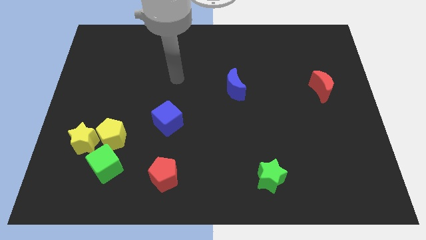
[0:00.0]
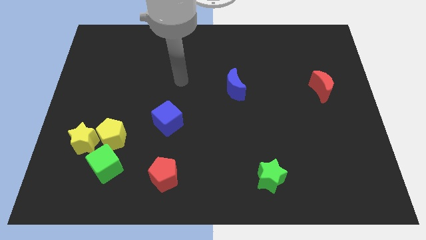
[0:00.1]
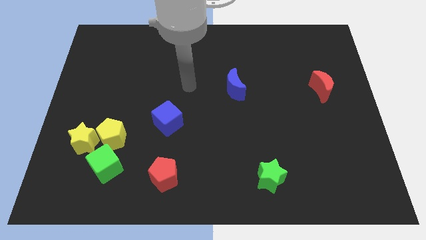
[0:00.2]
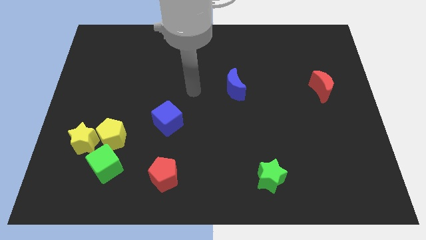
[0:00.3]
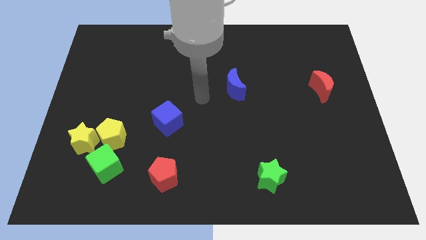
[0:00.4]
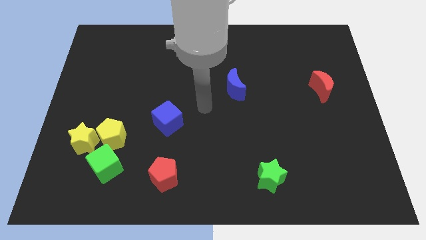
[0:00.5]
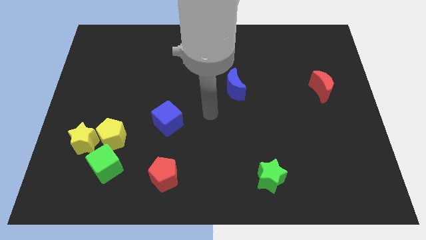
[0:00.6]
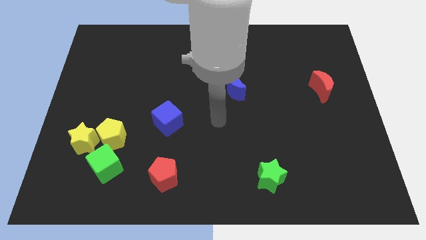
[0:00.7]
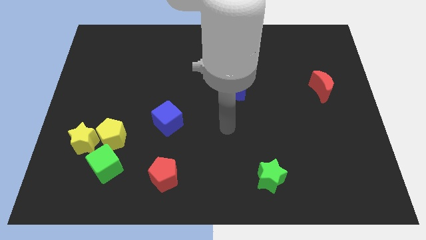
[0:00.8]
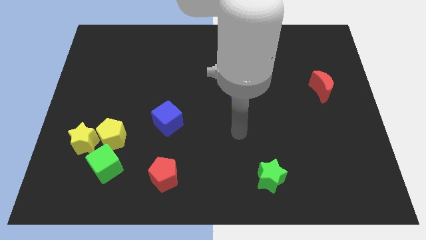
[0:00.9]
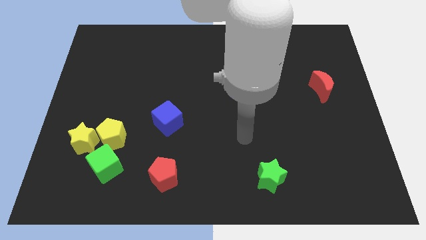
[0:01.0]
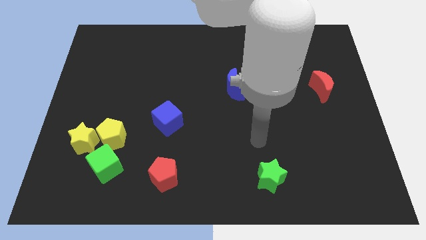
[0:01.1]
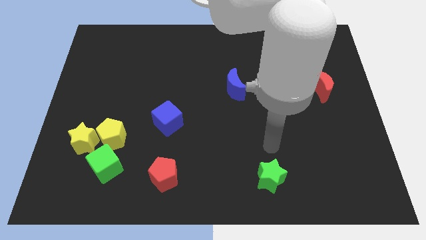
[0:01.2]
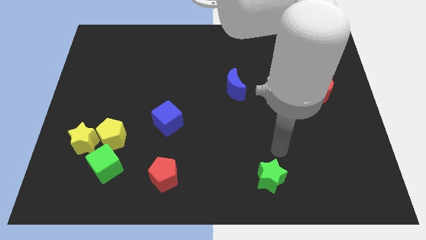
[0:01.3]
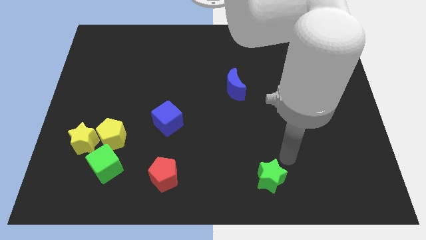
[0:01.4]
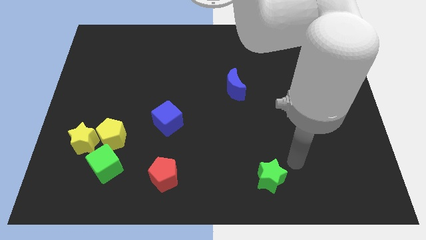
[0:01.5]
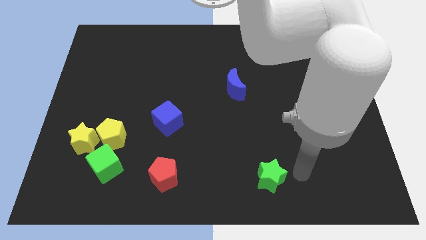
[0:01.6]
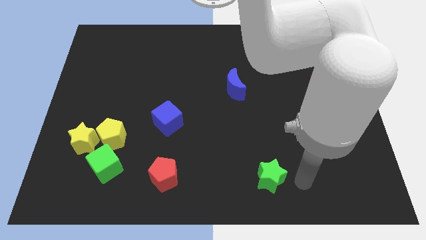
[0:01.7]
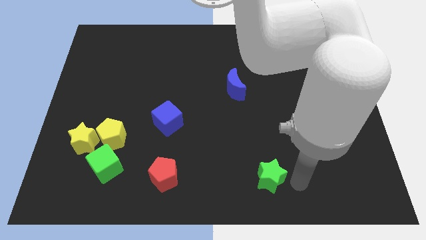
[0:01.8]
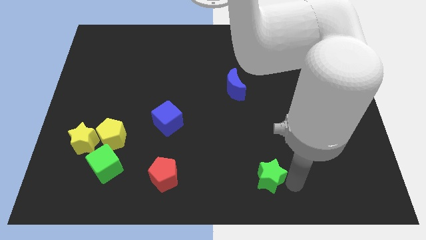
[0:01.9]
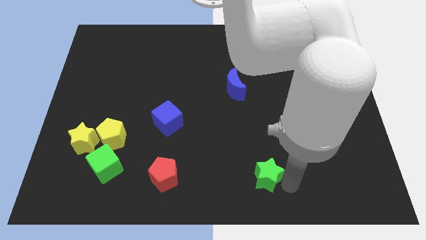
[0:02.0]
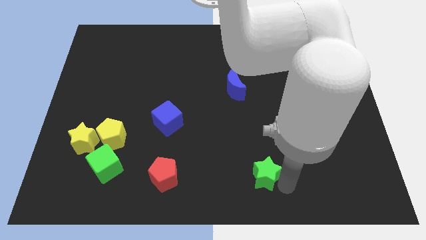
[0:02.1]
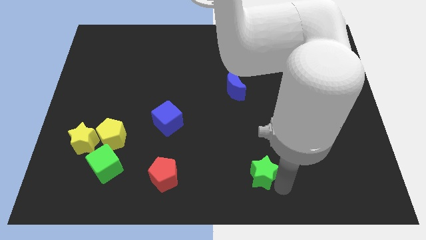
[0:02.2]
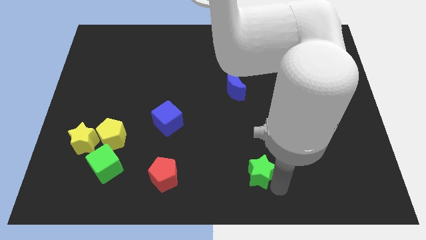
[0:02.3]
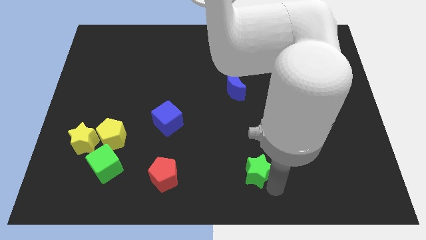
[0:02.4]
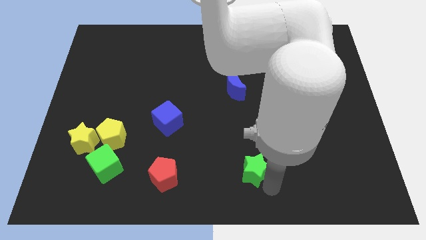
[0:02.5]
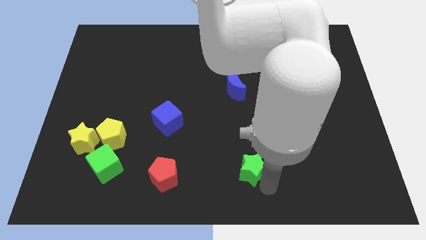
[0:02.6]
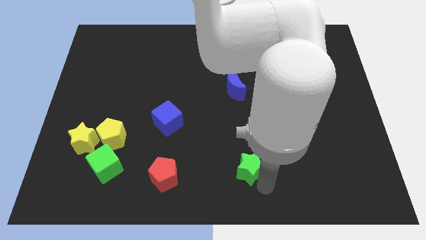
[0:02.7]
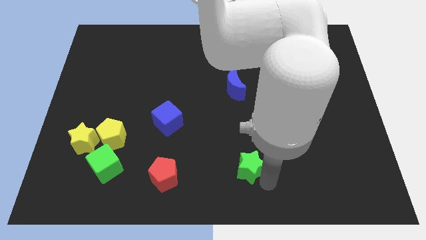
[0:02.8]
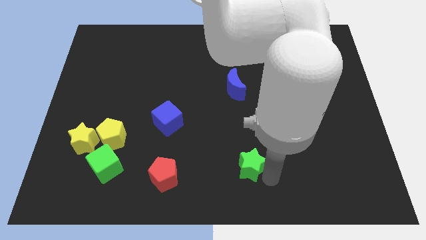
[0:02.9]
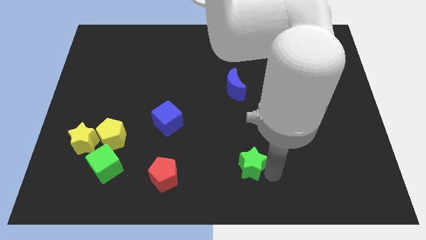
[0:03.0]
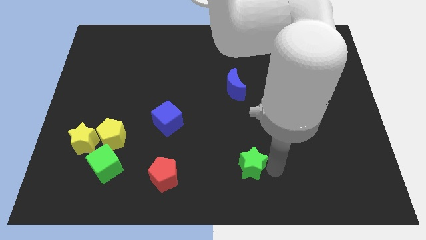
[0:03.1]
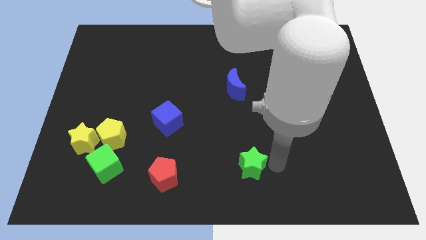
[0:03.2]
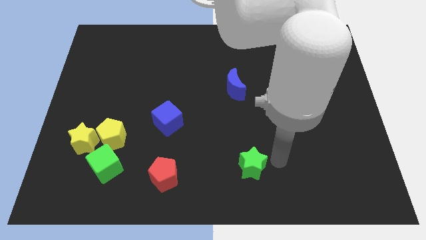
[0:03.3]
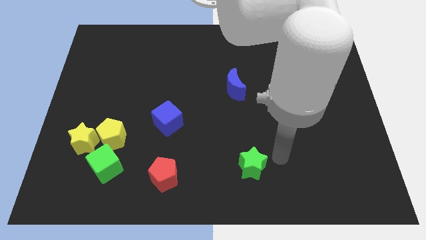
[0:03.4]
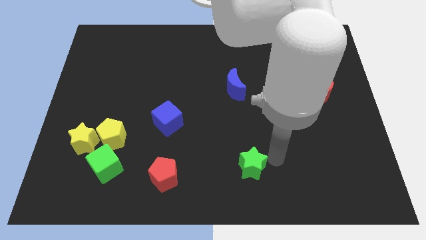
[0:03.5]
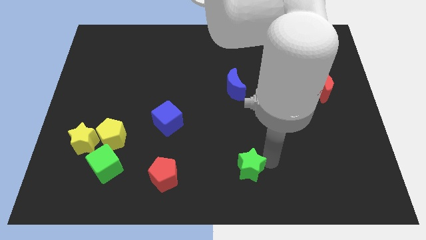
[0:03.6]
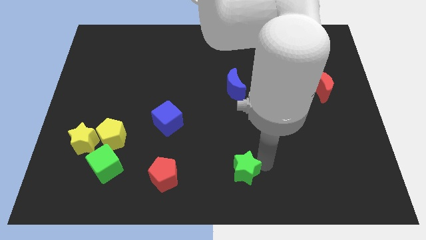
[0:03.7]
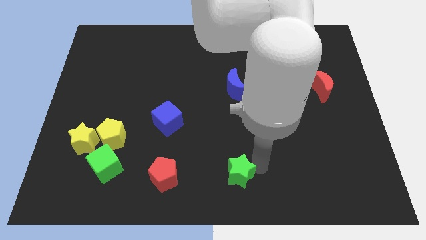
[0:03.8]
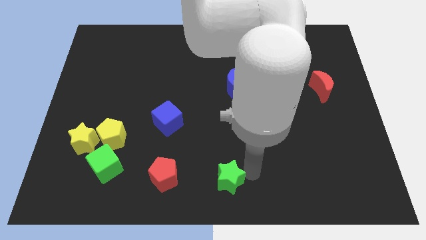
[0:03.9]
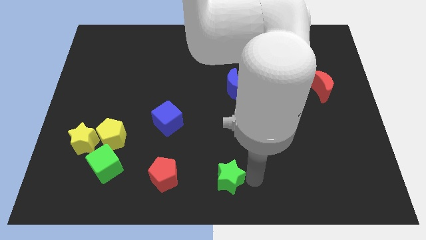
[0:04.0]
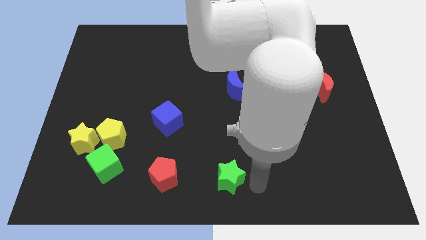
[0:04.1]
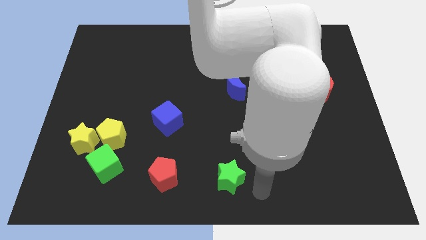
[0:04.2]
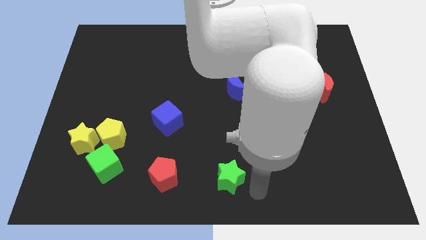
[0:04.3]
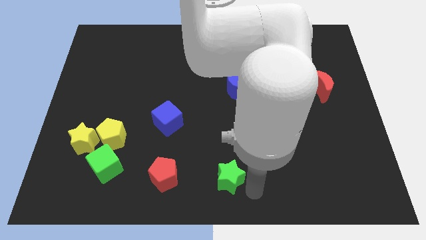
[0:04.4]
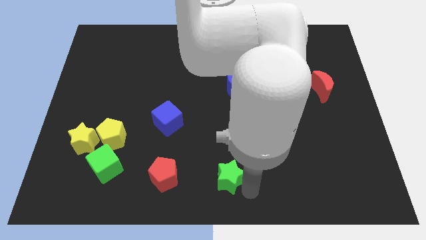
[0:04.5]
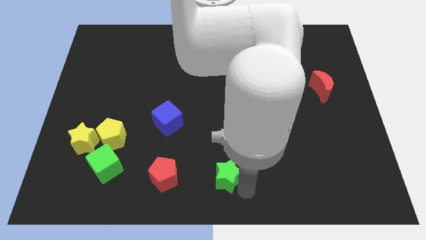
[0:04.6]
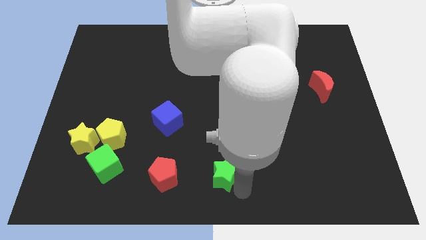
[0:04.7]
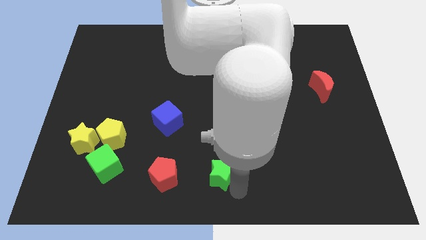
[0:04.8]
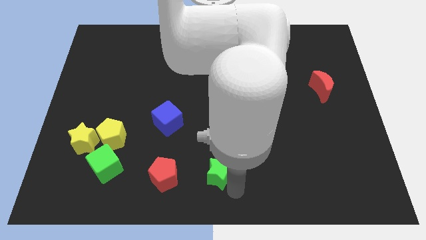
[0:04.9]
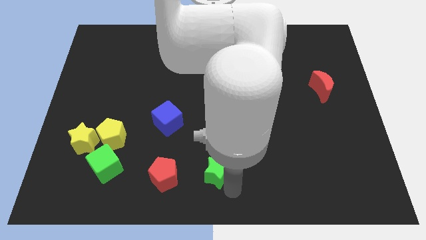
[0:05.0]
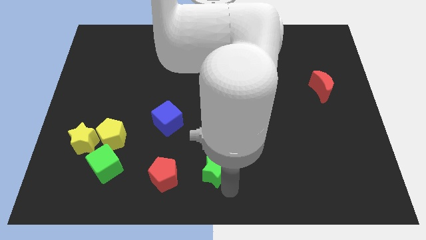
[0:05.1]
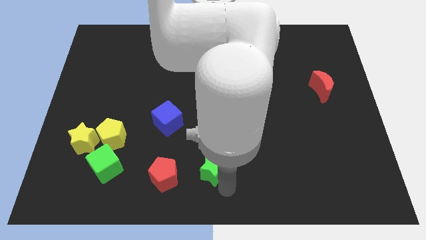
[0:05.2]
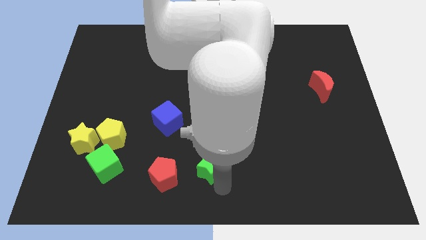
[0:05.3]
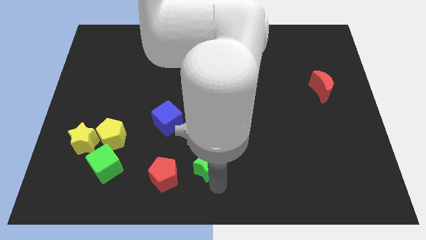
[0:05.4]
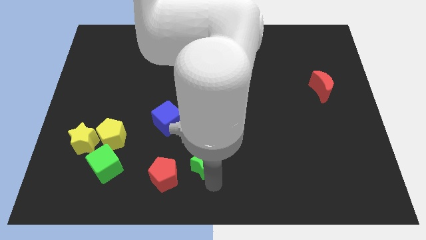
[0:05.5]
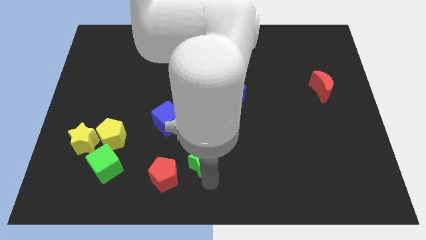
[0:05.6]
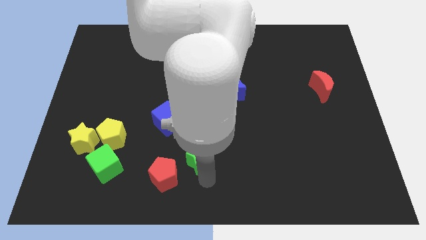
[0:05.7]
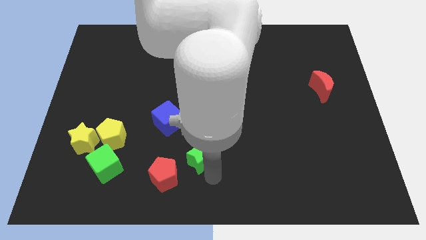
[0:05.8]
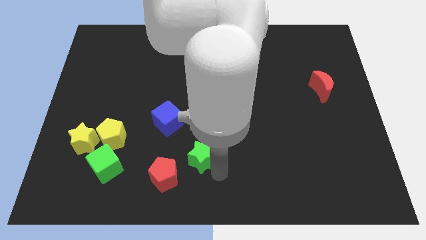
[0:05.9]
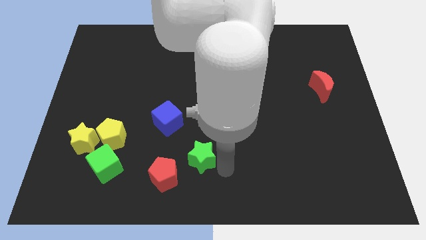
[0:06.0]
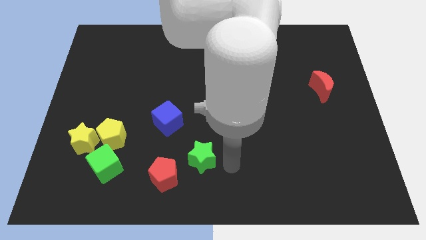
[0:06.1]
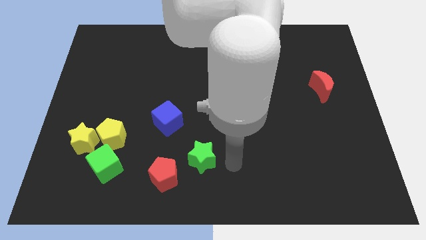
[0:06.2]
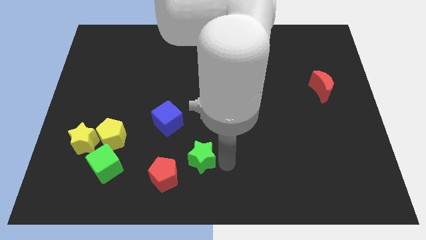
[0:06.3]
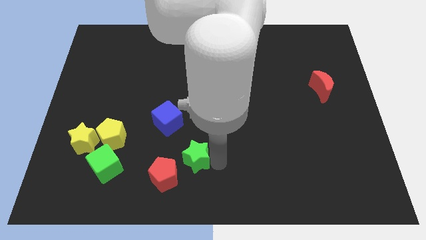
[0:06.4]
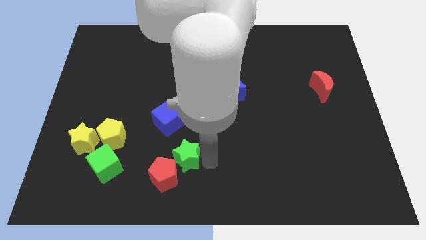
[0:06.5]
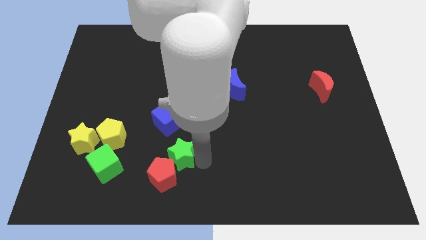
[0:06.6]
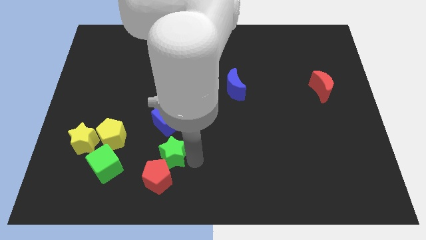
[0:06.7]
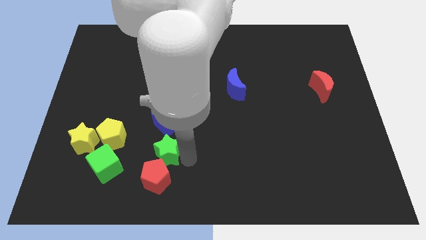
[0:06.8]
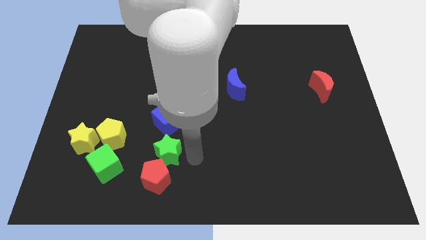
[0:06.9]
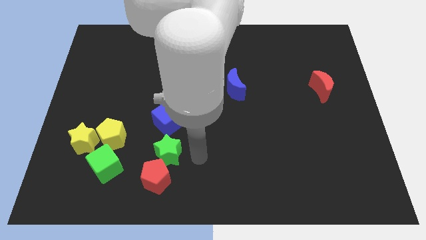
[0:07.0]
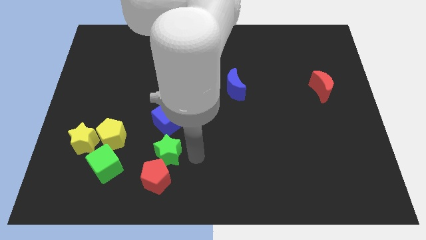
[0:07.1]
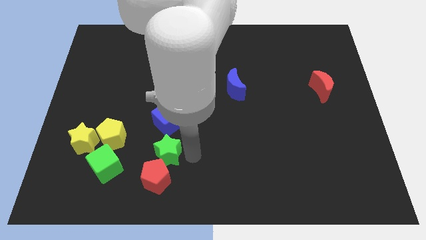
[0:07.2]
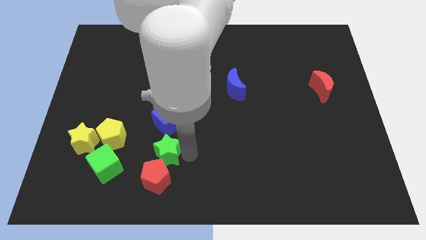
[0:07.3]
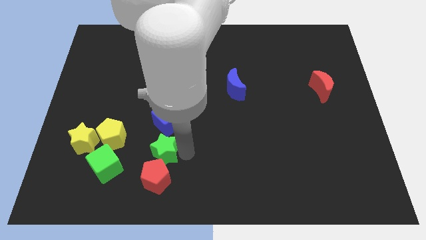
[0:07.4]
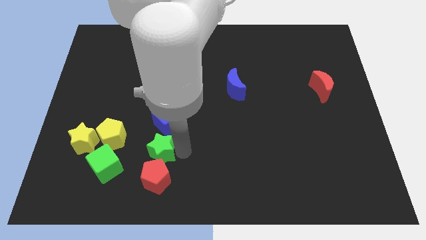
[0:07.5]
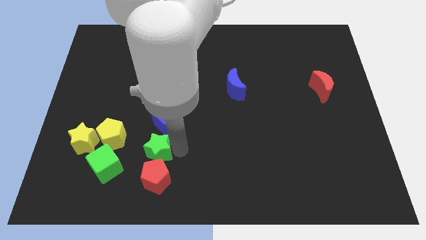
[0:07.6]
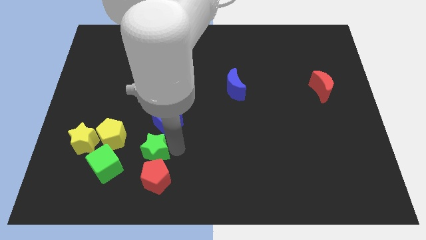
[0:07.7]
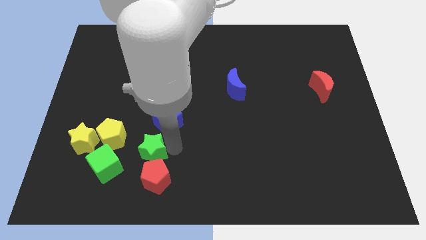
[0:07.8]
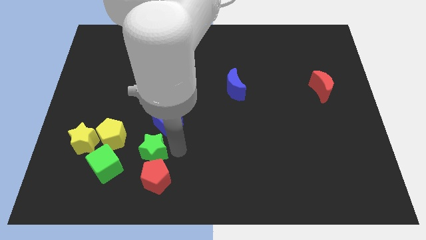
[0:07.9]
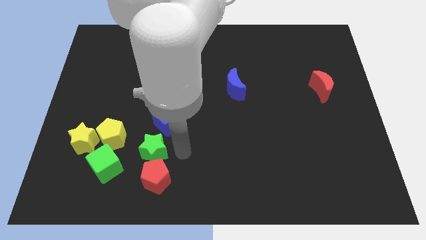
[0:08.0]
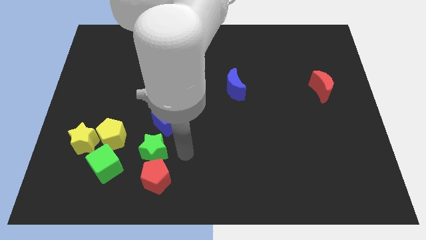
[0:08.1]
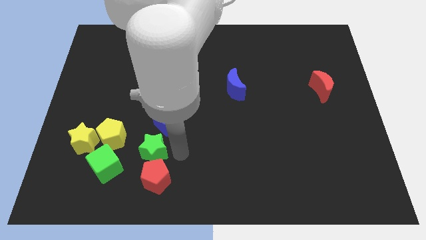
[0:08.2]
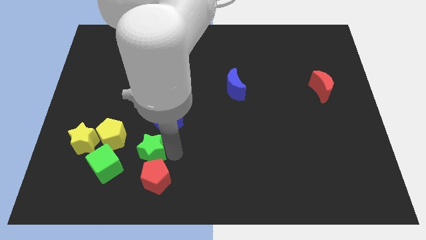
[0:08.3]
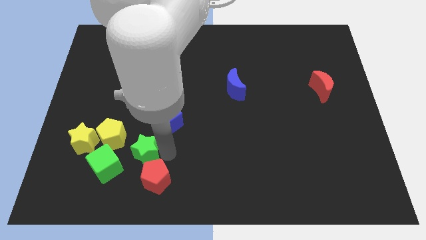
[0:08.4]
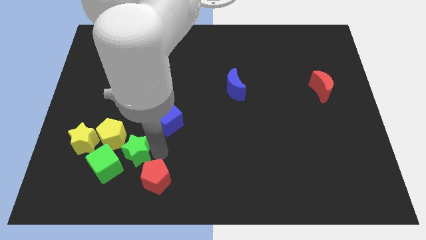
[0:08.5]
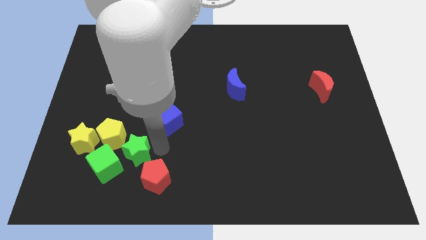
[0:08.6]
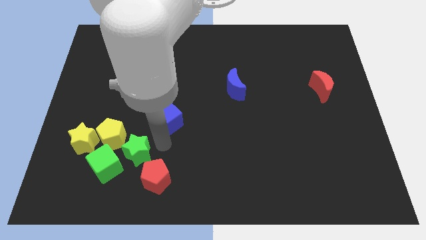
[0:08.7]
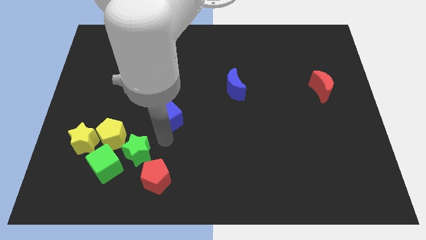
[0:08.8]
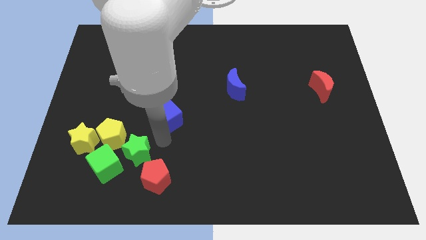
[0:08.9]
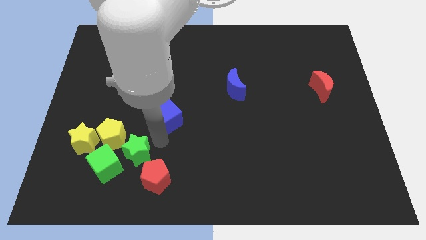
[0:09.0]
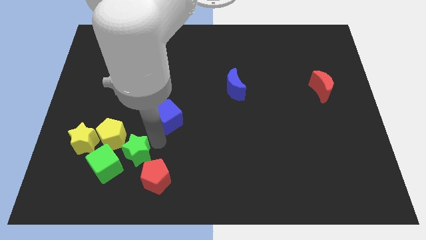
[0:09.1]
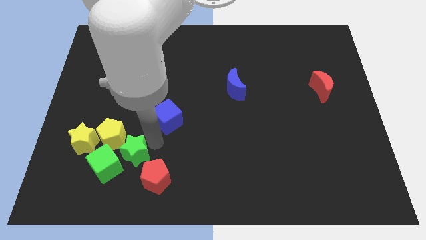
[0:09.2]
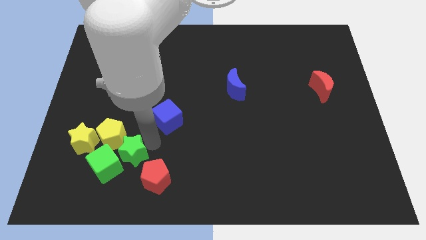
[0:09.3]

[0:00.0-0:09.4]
put the green star to the green cube
